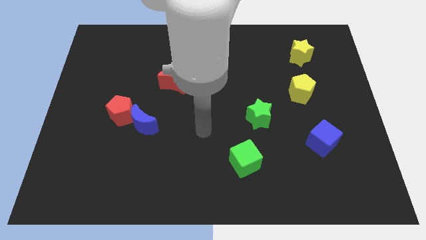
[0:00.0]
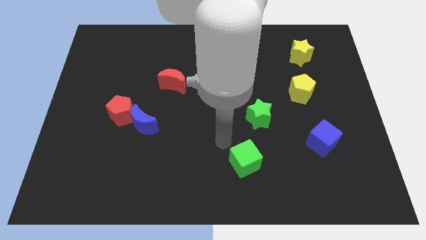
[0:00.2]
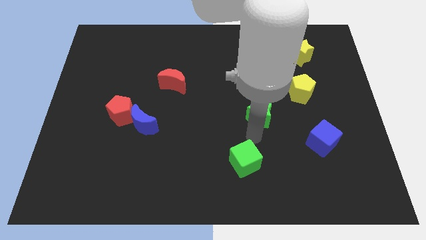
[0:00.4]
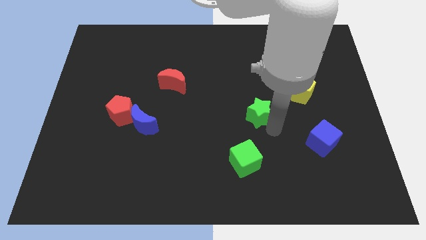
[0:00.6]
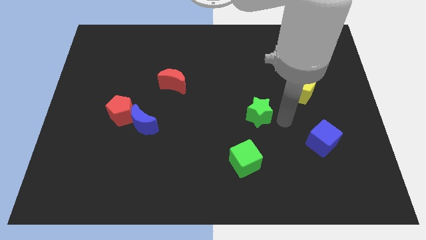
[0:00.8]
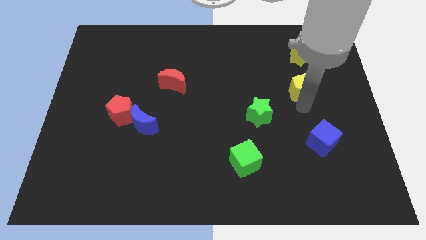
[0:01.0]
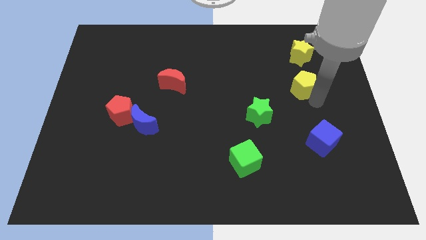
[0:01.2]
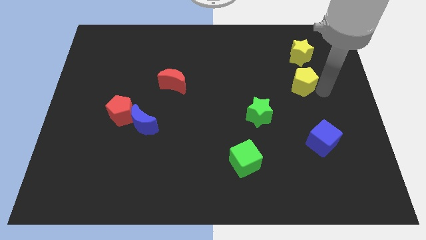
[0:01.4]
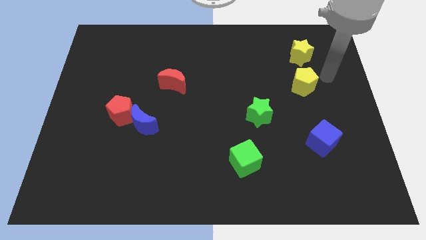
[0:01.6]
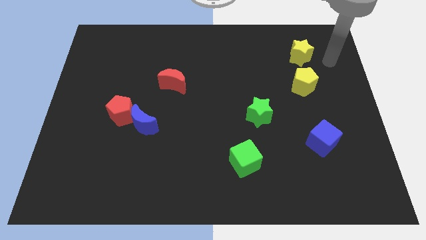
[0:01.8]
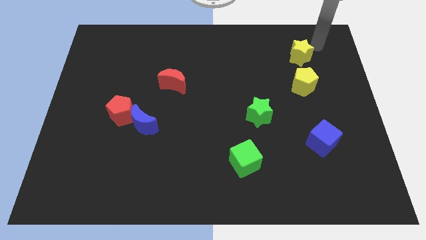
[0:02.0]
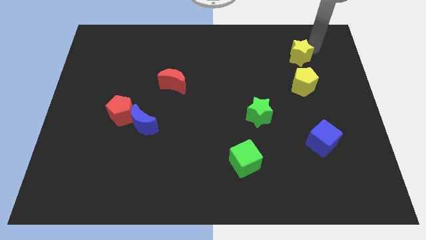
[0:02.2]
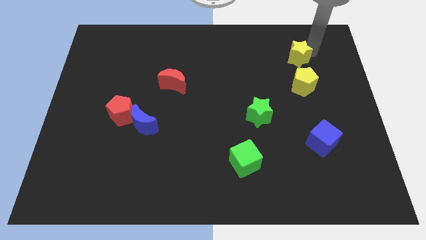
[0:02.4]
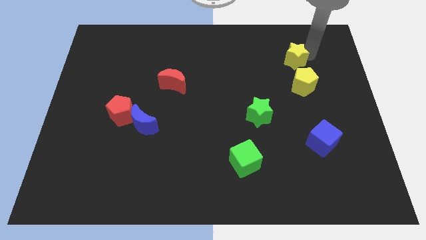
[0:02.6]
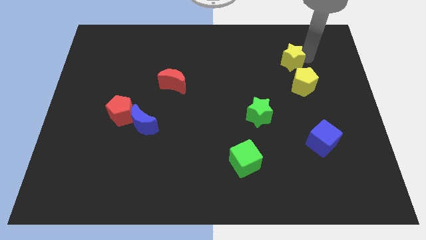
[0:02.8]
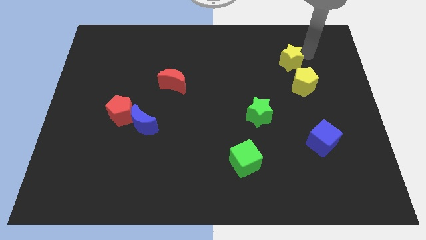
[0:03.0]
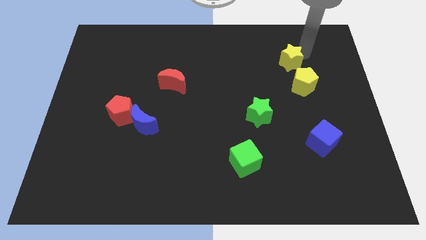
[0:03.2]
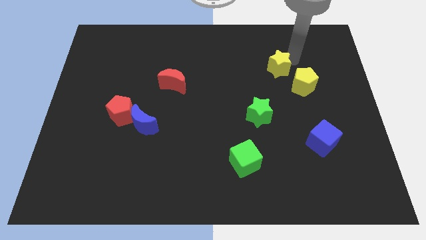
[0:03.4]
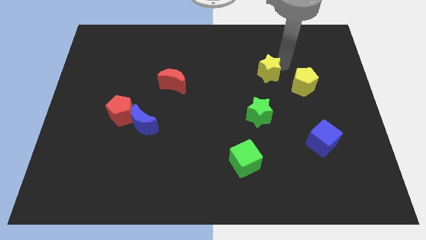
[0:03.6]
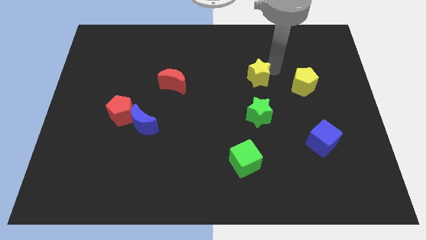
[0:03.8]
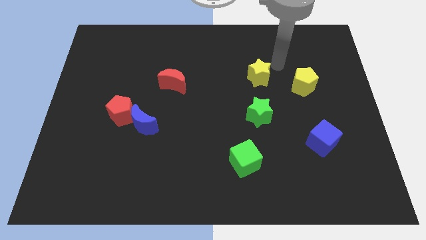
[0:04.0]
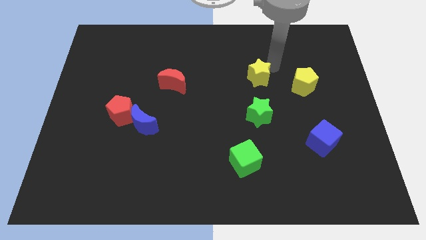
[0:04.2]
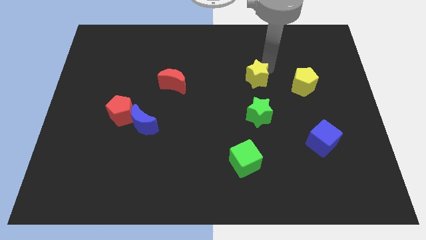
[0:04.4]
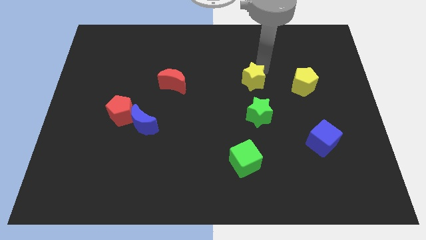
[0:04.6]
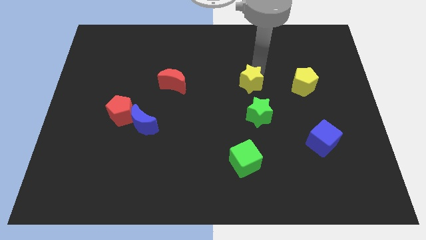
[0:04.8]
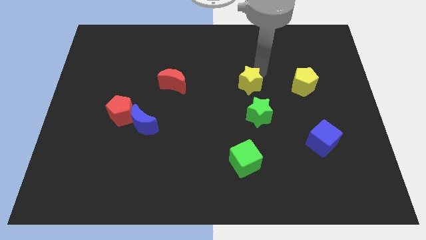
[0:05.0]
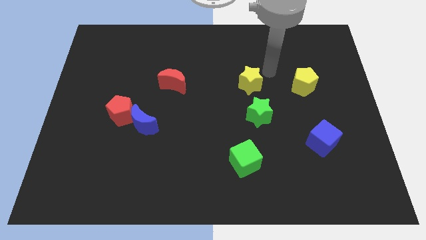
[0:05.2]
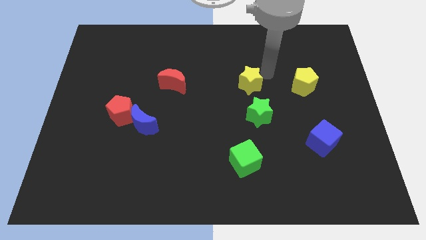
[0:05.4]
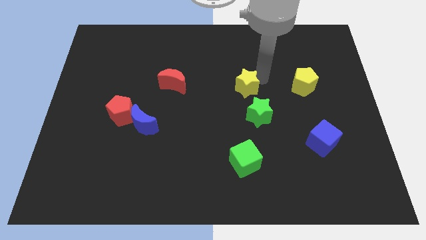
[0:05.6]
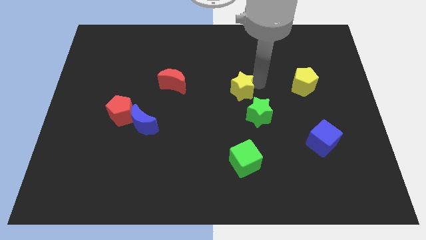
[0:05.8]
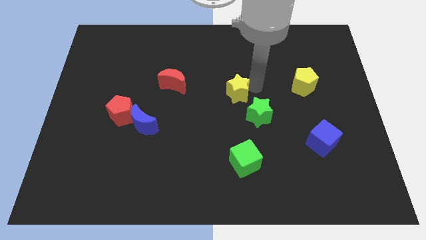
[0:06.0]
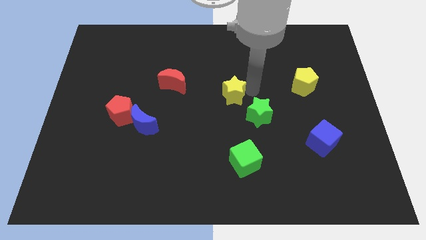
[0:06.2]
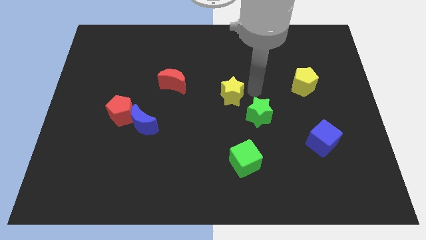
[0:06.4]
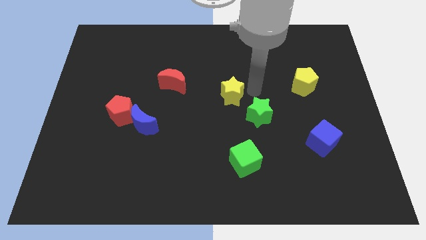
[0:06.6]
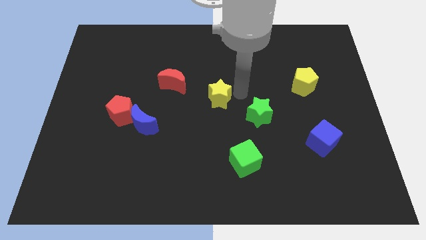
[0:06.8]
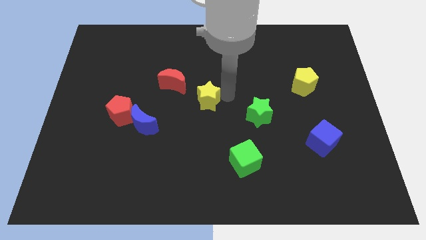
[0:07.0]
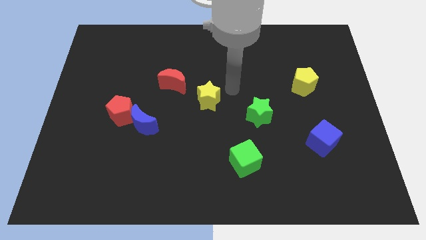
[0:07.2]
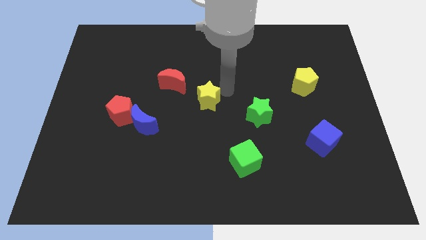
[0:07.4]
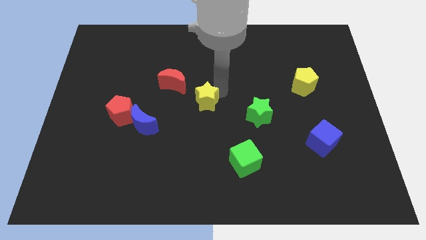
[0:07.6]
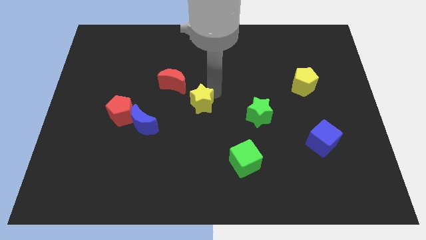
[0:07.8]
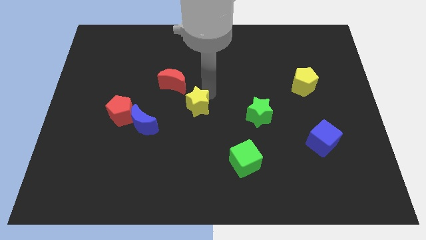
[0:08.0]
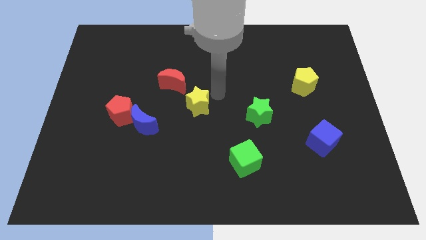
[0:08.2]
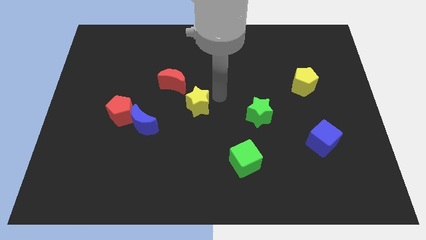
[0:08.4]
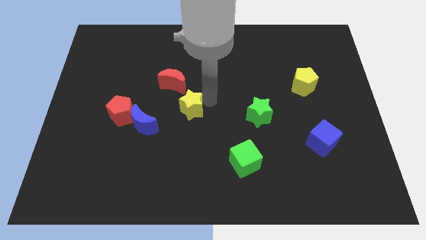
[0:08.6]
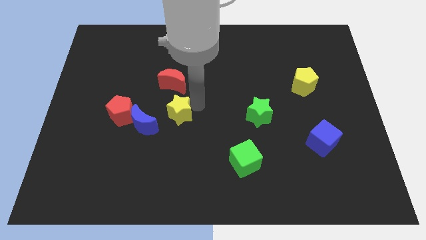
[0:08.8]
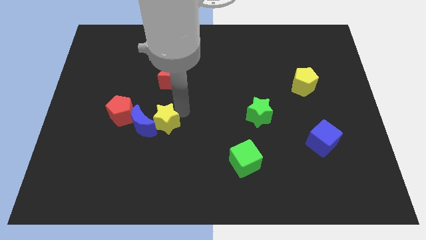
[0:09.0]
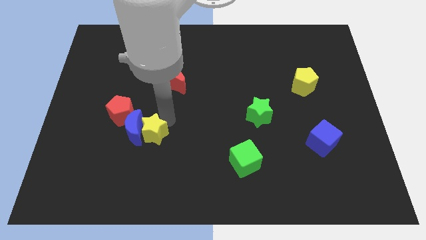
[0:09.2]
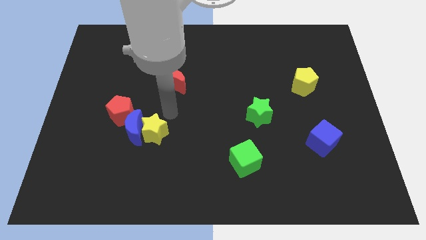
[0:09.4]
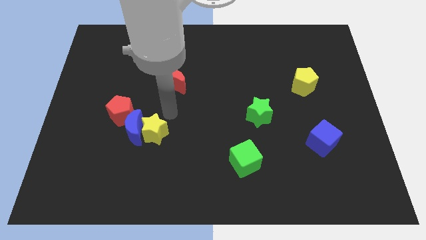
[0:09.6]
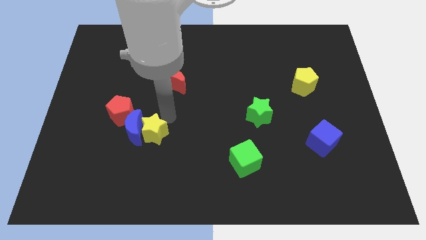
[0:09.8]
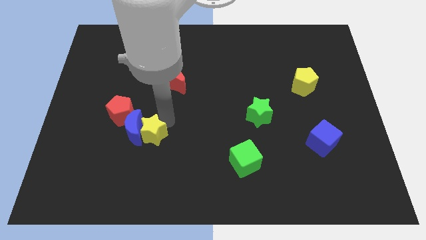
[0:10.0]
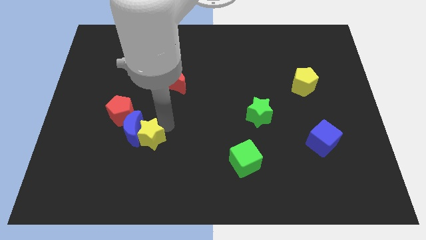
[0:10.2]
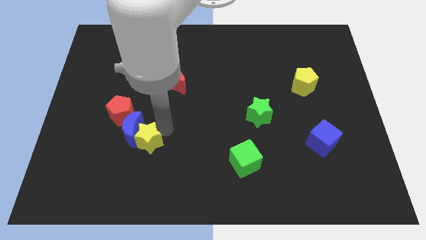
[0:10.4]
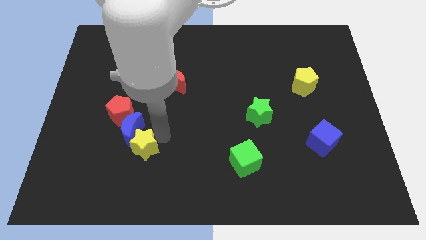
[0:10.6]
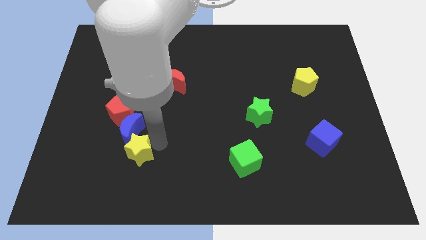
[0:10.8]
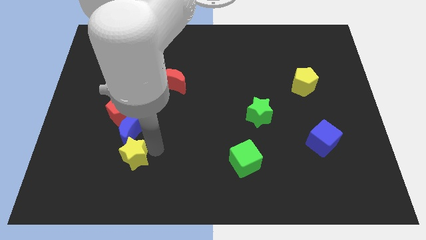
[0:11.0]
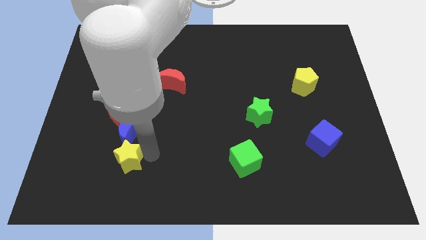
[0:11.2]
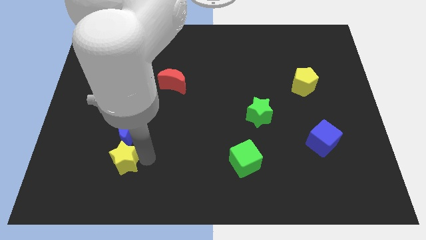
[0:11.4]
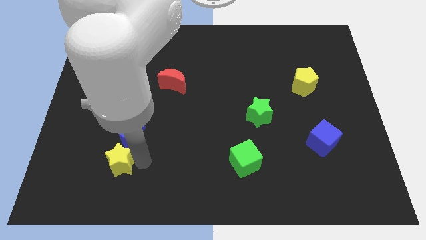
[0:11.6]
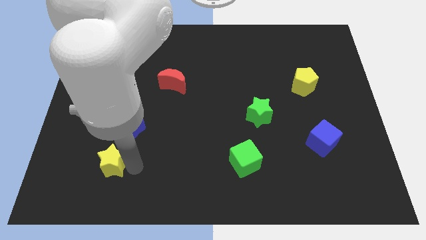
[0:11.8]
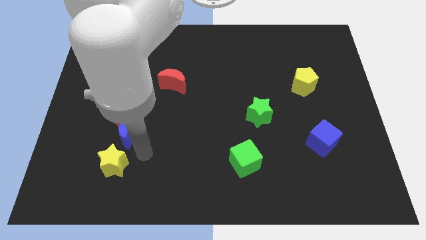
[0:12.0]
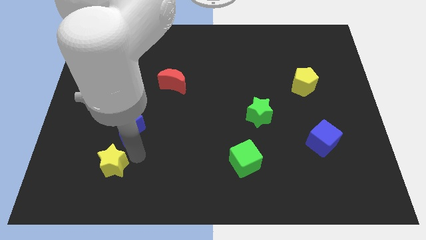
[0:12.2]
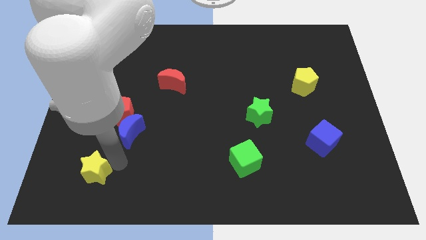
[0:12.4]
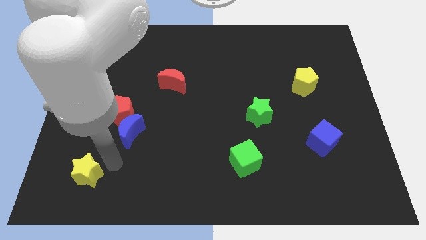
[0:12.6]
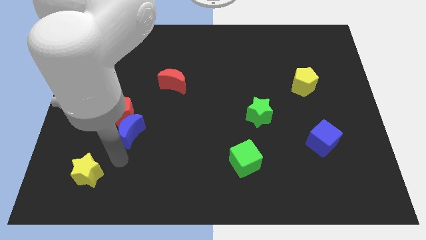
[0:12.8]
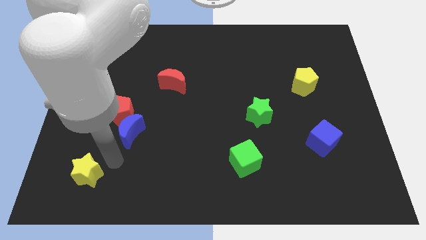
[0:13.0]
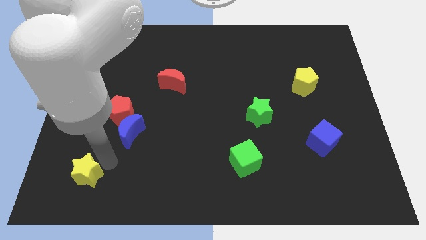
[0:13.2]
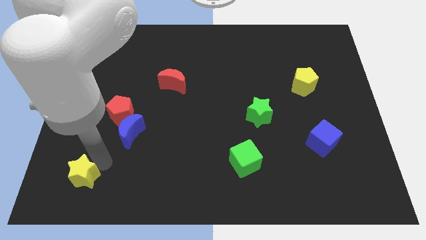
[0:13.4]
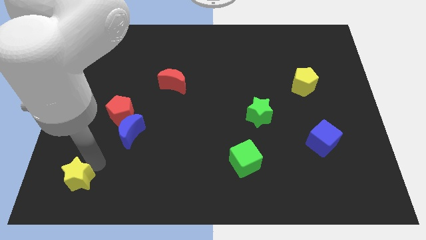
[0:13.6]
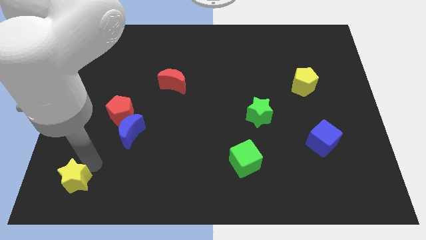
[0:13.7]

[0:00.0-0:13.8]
push the yellow star to the lower left corner
